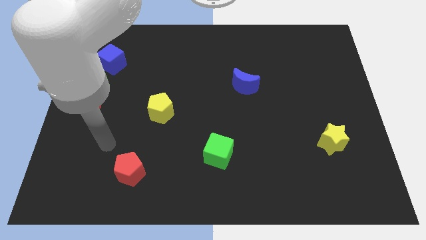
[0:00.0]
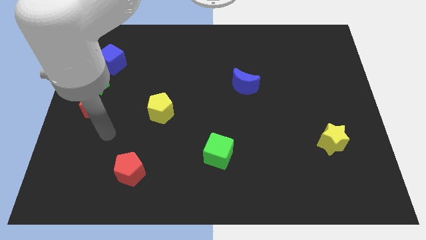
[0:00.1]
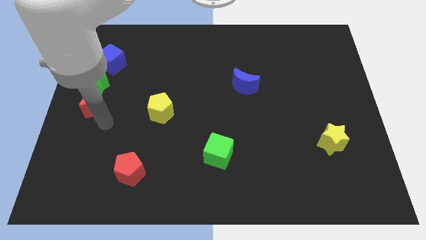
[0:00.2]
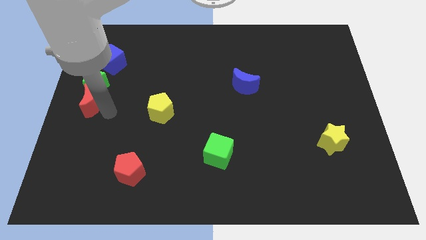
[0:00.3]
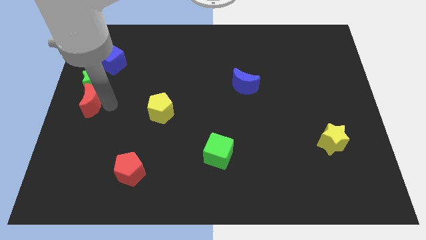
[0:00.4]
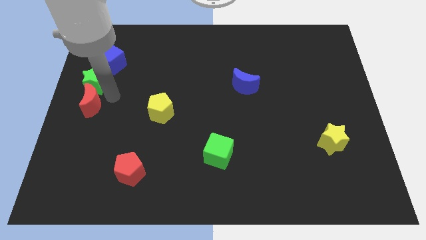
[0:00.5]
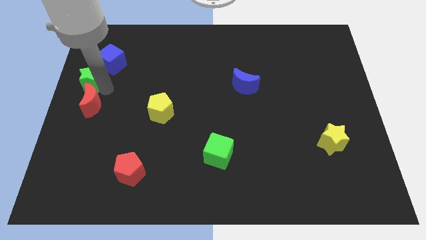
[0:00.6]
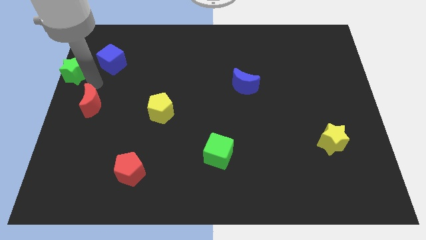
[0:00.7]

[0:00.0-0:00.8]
move the red moon away from the green star

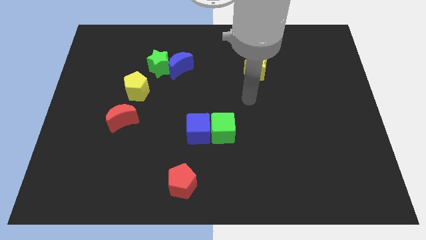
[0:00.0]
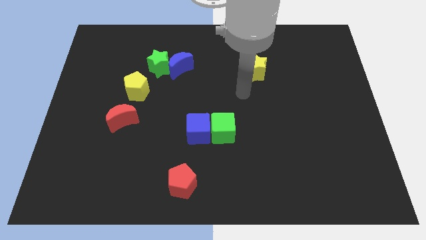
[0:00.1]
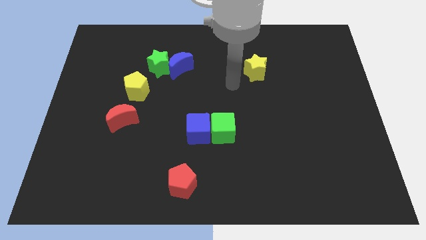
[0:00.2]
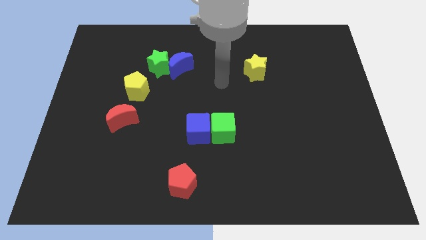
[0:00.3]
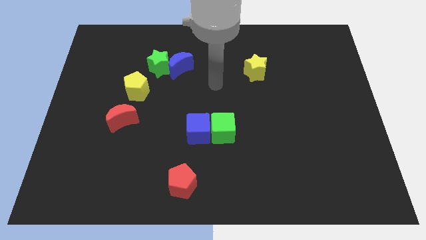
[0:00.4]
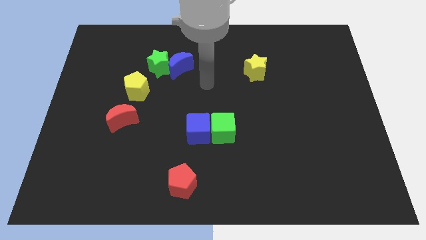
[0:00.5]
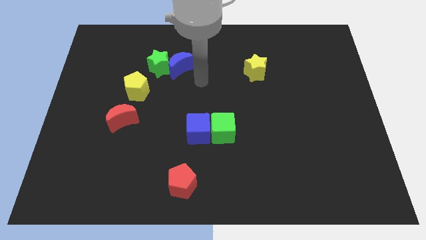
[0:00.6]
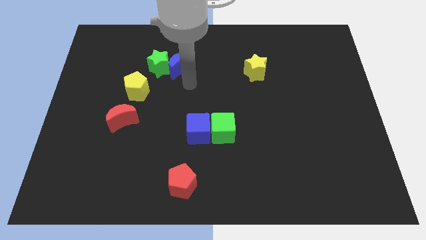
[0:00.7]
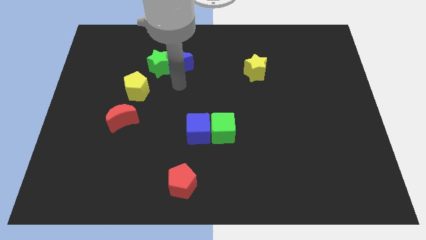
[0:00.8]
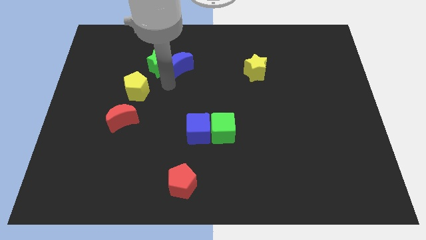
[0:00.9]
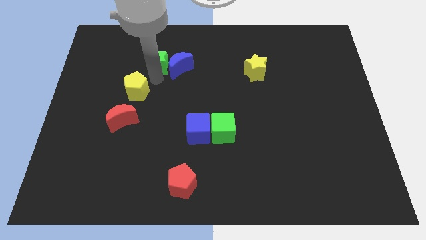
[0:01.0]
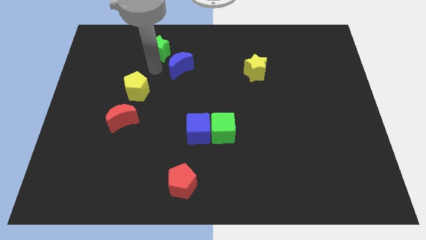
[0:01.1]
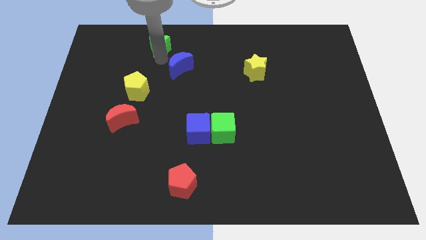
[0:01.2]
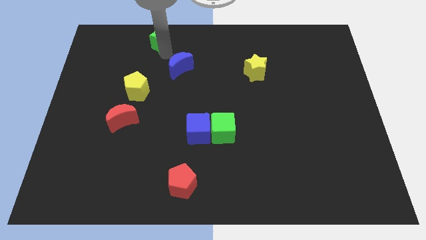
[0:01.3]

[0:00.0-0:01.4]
move the blue moon away from the green star

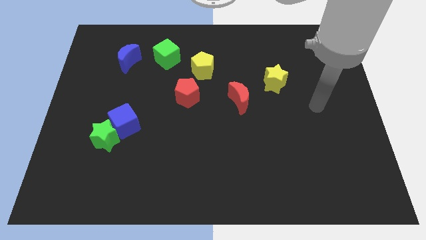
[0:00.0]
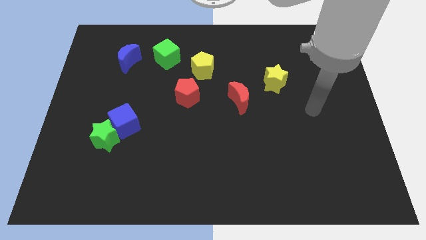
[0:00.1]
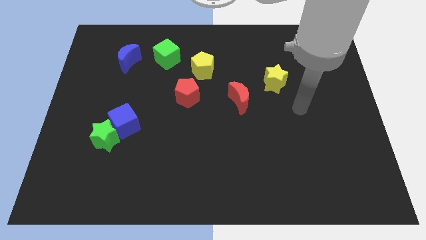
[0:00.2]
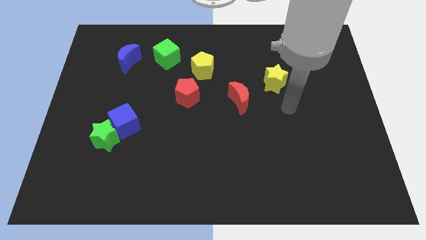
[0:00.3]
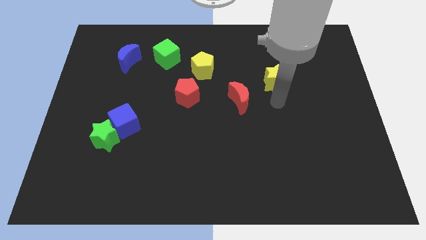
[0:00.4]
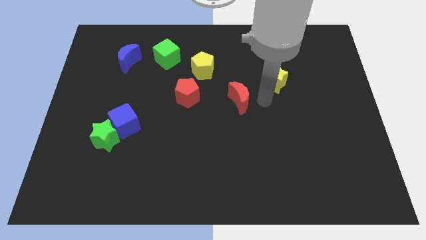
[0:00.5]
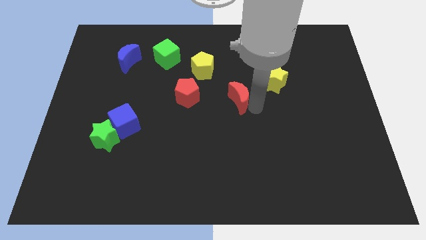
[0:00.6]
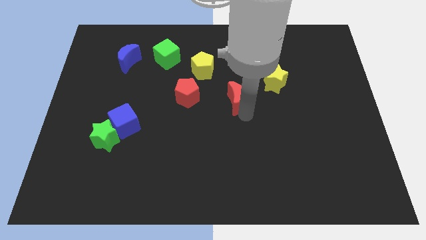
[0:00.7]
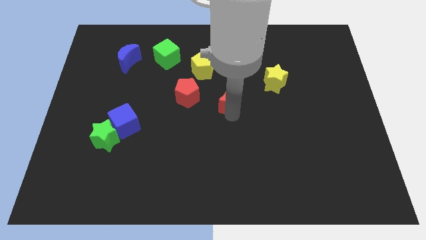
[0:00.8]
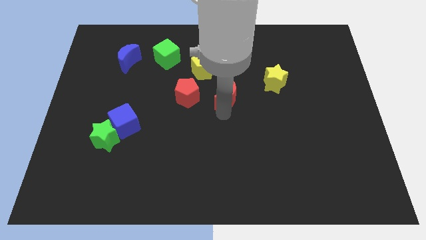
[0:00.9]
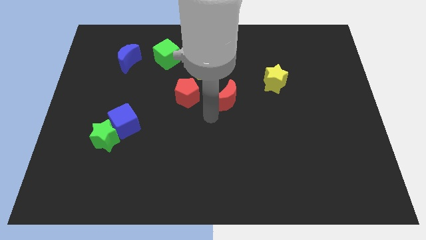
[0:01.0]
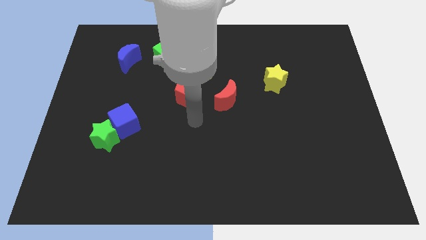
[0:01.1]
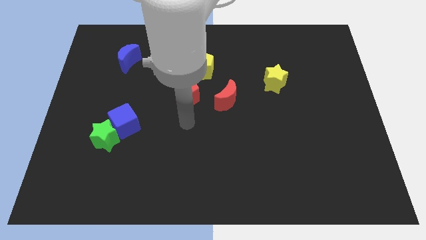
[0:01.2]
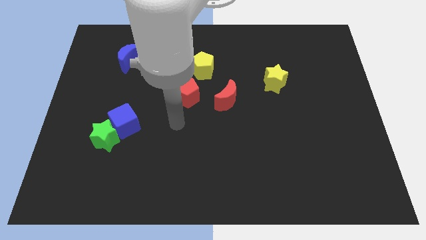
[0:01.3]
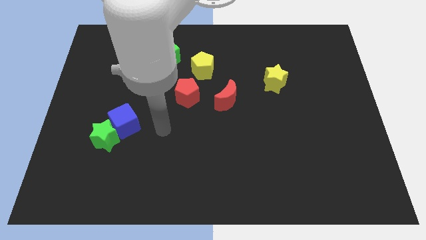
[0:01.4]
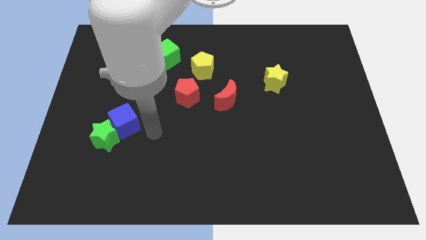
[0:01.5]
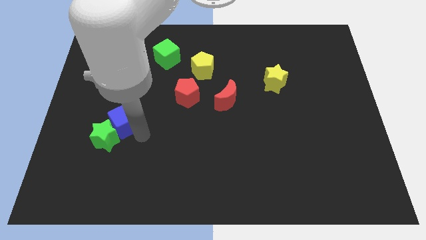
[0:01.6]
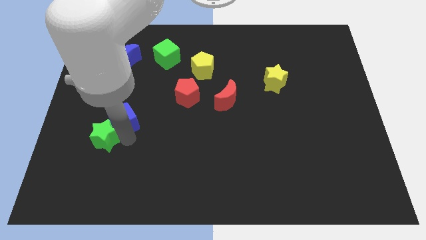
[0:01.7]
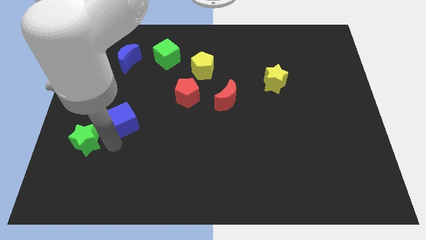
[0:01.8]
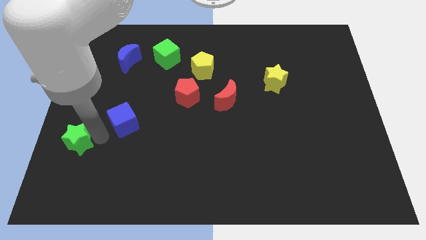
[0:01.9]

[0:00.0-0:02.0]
move the blue cube away from the green star

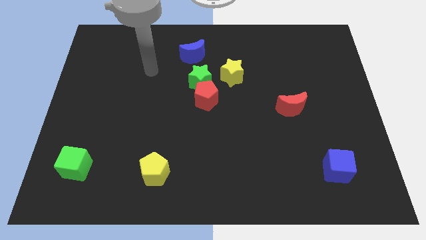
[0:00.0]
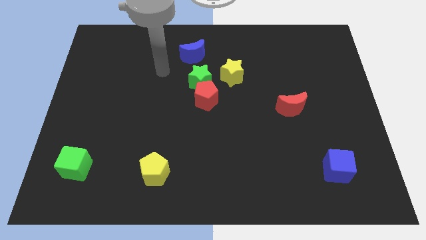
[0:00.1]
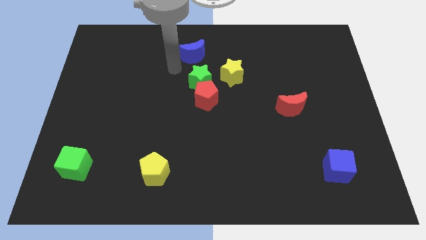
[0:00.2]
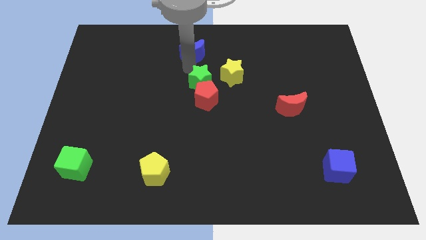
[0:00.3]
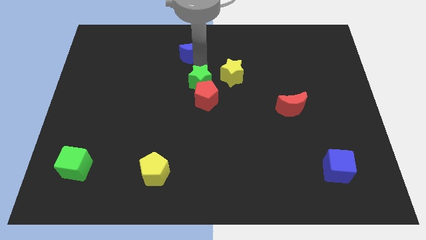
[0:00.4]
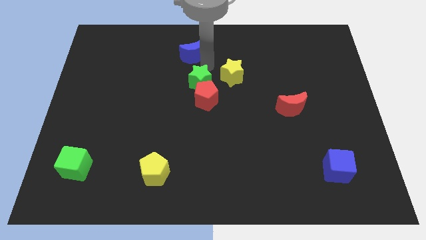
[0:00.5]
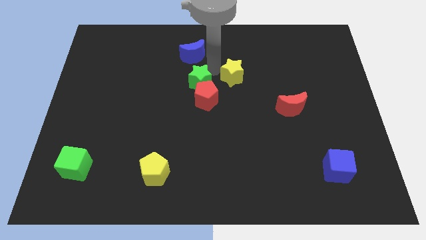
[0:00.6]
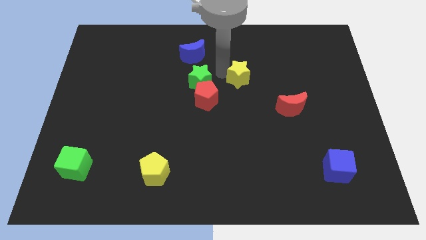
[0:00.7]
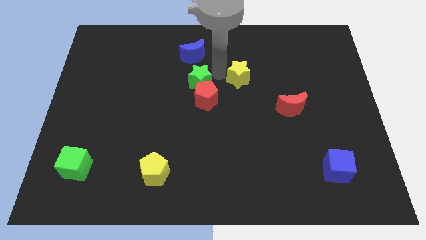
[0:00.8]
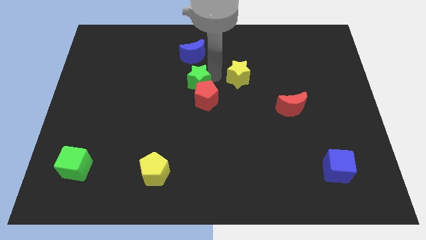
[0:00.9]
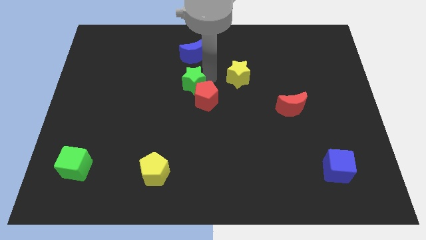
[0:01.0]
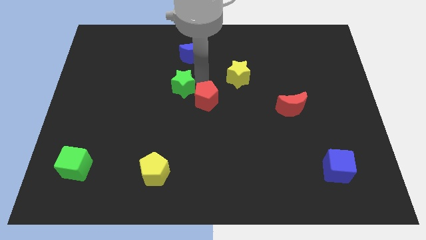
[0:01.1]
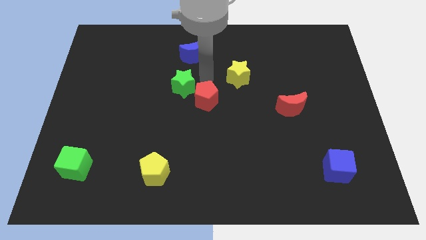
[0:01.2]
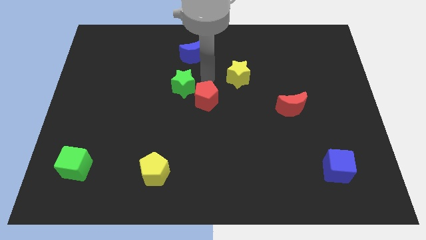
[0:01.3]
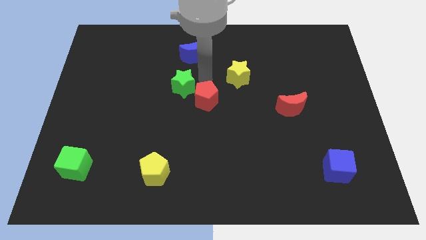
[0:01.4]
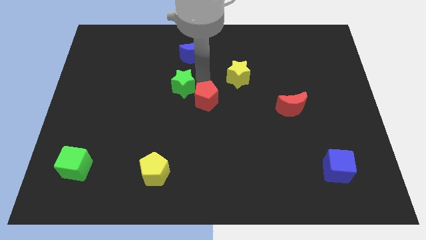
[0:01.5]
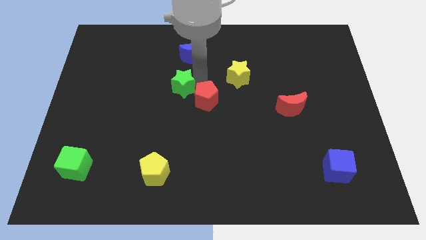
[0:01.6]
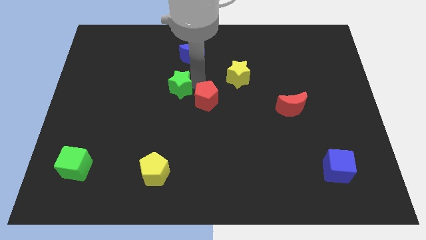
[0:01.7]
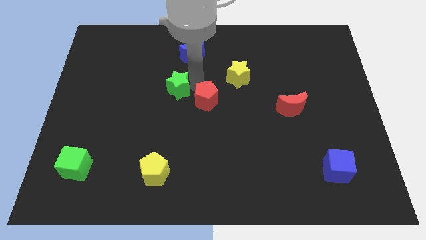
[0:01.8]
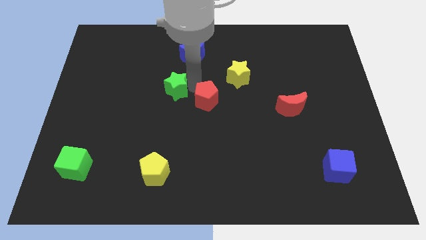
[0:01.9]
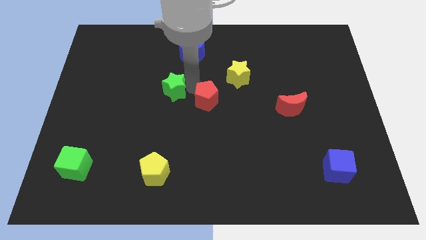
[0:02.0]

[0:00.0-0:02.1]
separate the green star from the clump

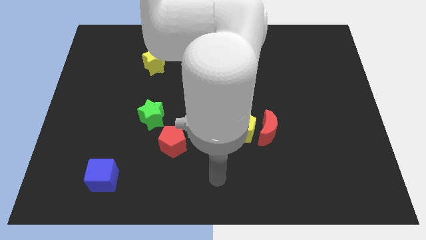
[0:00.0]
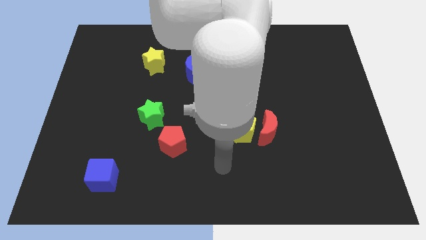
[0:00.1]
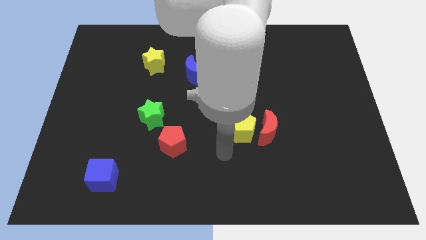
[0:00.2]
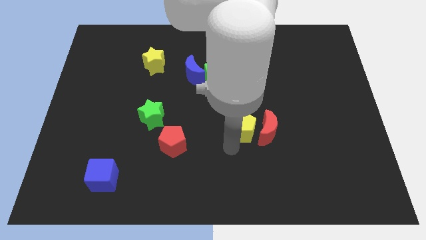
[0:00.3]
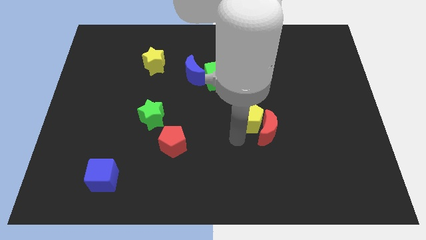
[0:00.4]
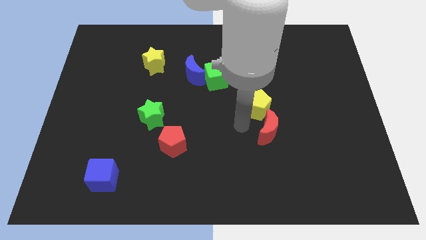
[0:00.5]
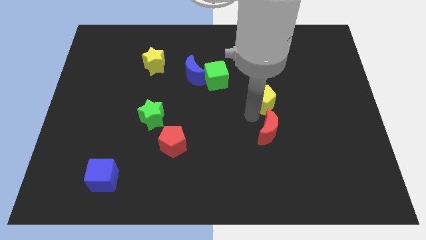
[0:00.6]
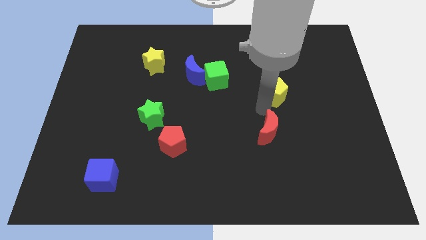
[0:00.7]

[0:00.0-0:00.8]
separate the red moon from the yellow pentagon

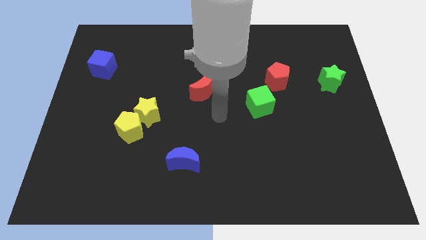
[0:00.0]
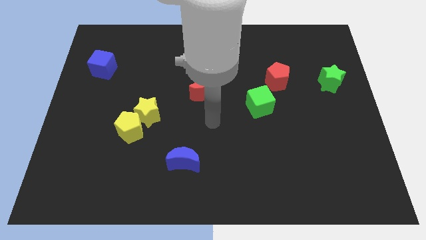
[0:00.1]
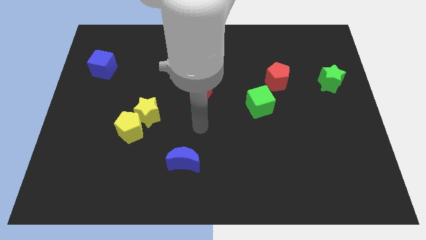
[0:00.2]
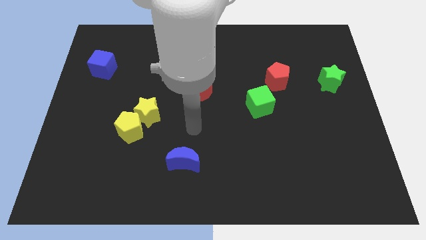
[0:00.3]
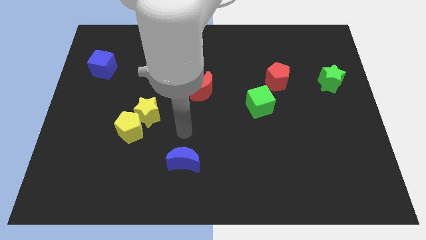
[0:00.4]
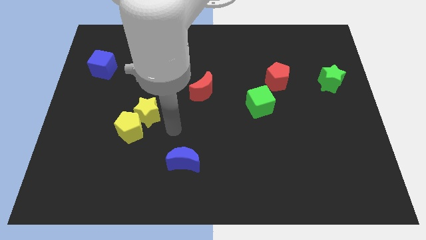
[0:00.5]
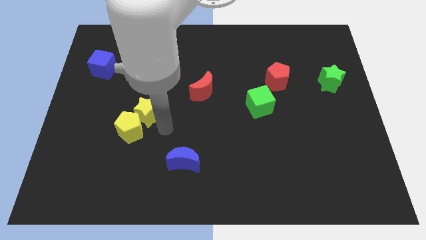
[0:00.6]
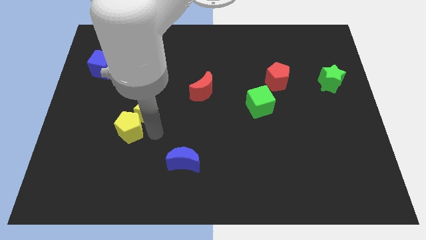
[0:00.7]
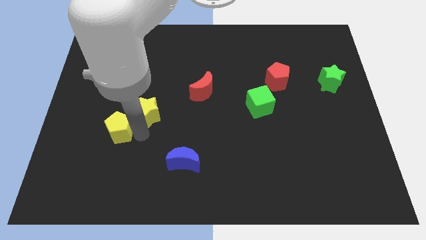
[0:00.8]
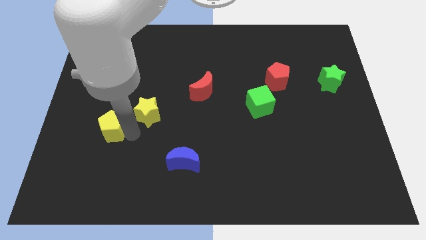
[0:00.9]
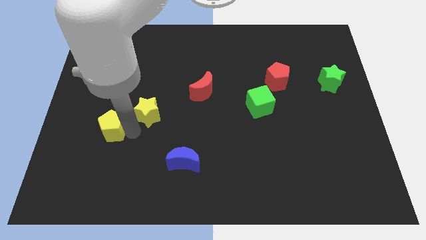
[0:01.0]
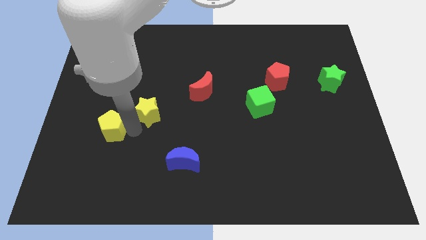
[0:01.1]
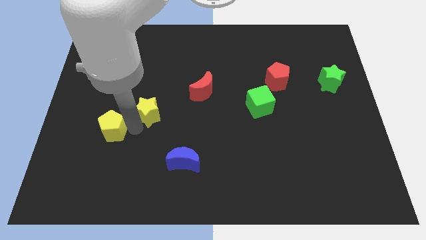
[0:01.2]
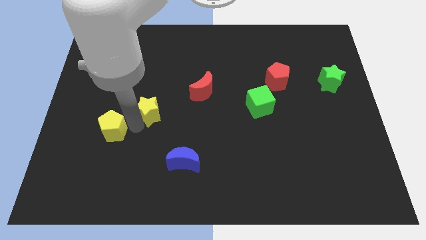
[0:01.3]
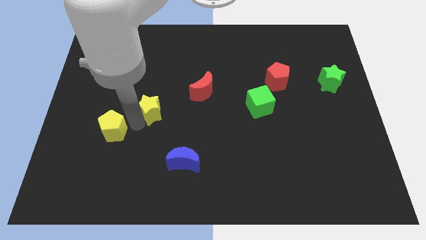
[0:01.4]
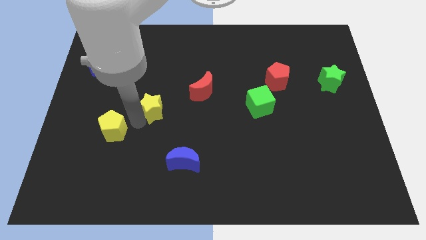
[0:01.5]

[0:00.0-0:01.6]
pull the yellow star apart from the yellow pentagon

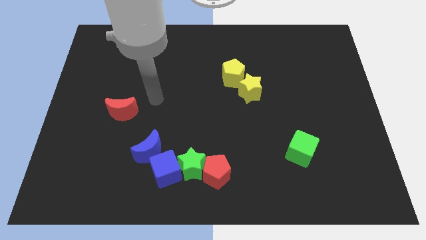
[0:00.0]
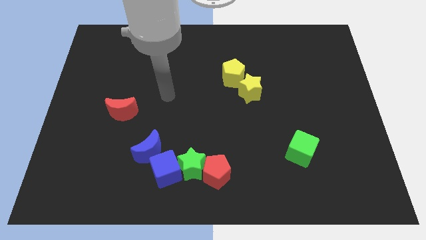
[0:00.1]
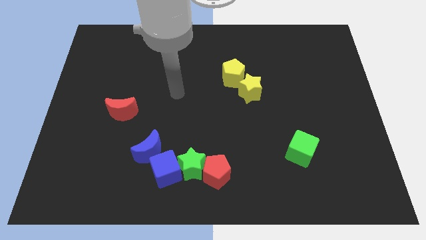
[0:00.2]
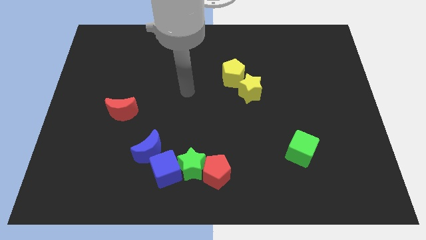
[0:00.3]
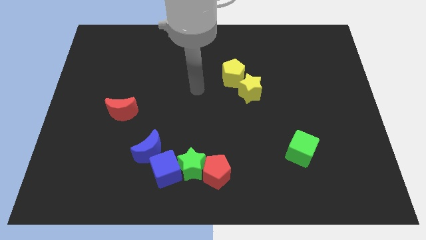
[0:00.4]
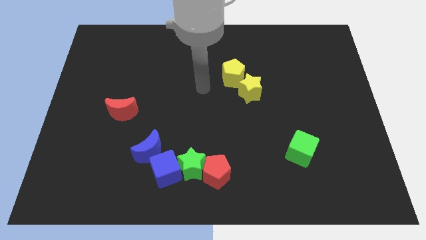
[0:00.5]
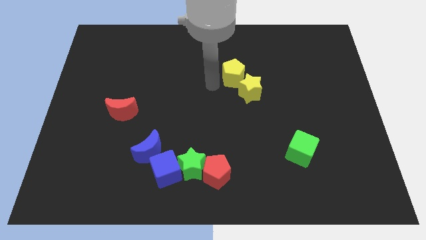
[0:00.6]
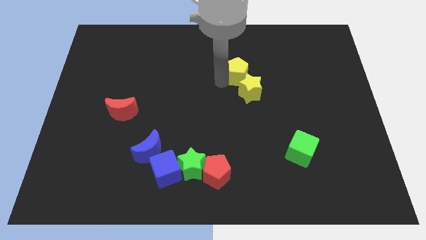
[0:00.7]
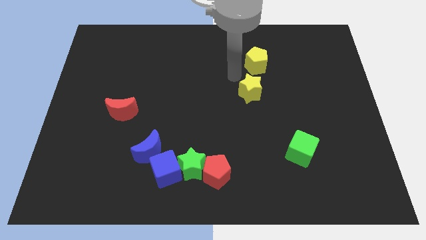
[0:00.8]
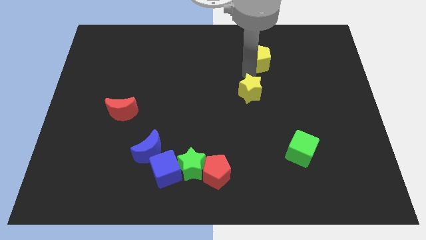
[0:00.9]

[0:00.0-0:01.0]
separate the yellow star from the yellow pentagon
